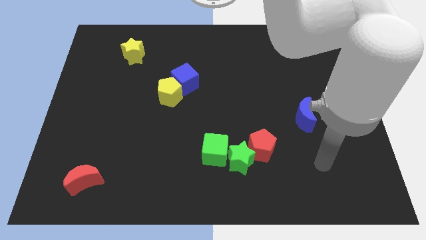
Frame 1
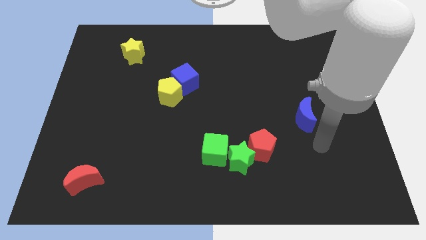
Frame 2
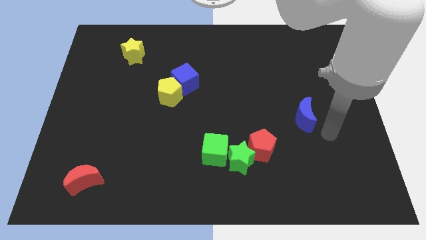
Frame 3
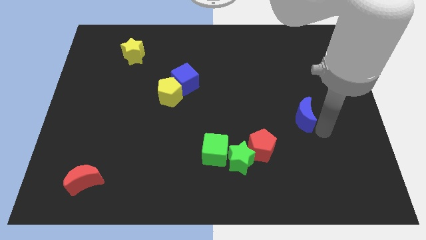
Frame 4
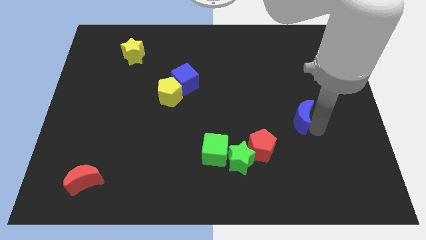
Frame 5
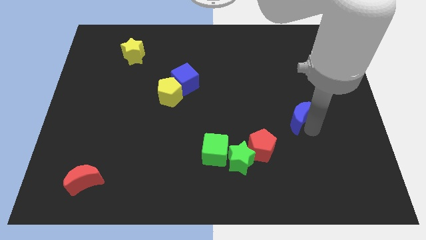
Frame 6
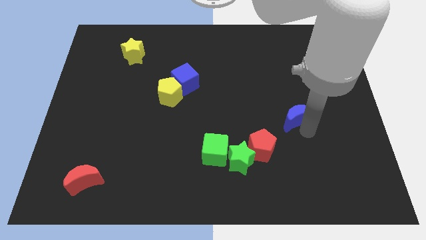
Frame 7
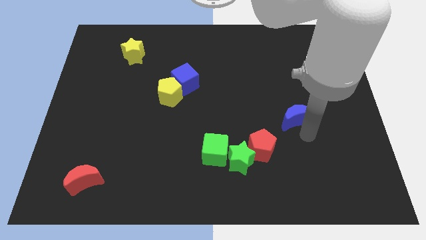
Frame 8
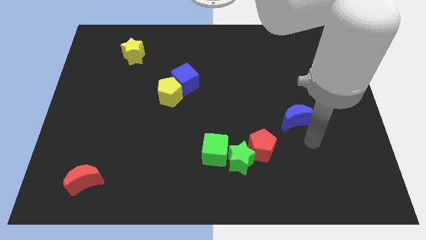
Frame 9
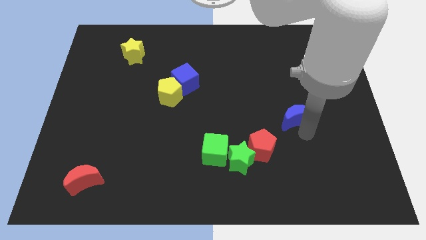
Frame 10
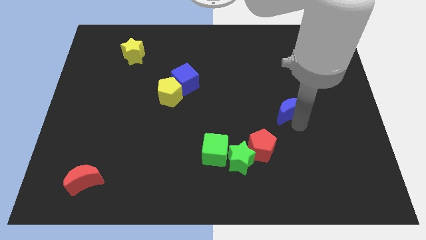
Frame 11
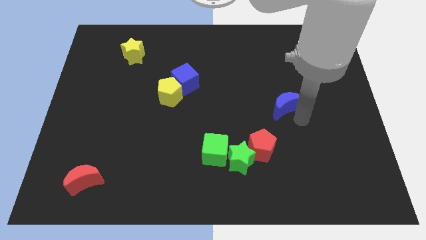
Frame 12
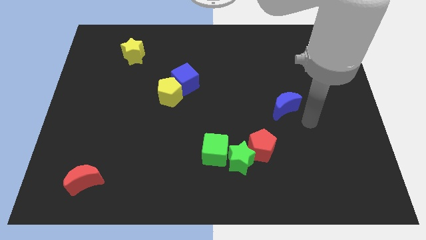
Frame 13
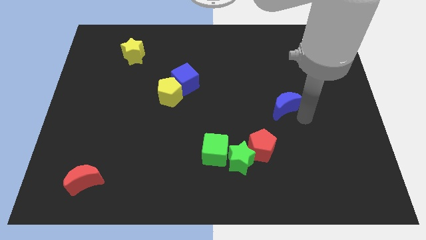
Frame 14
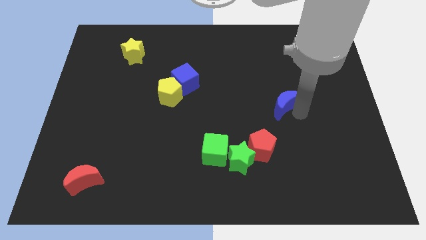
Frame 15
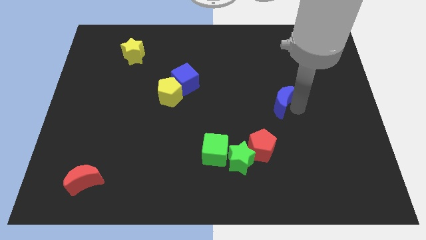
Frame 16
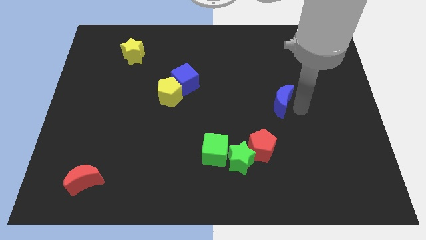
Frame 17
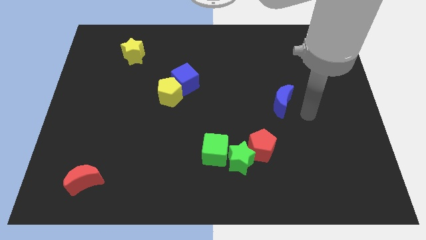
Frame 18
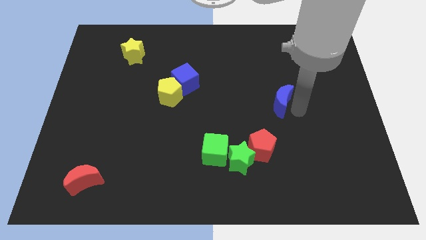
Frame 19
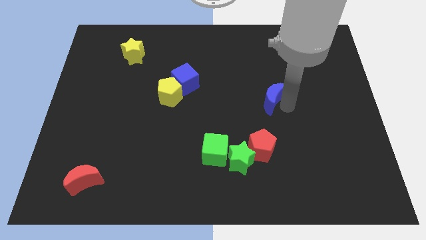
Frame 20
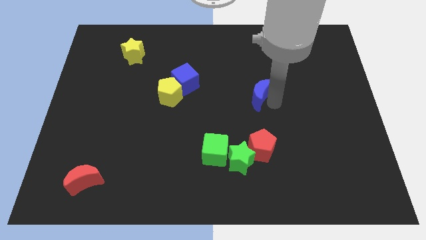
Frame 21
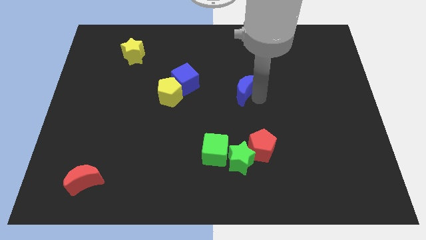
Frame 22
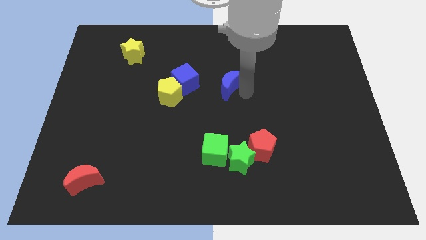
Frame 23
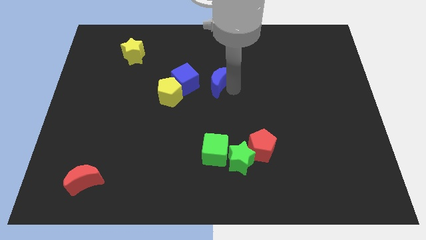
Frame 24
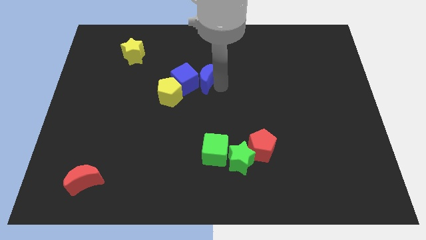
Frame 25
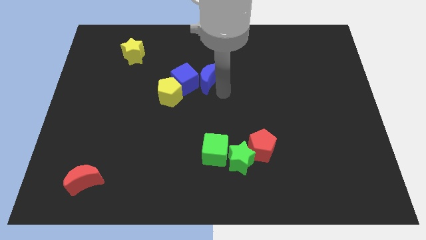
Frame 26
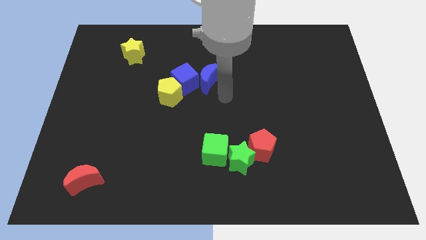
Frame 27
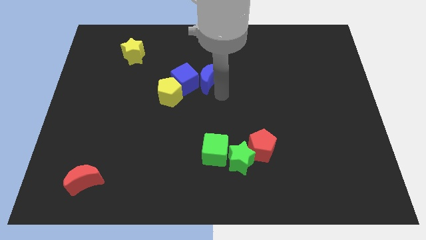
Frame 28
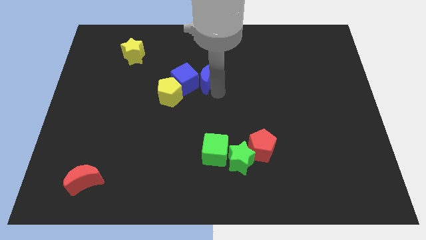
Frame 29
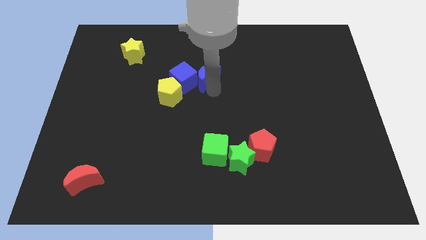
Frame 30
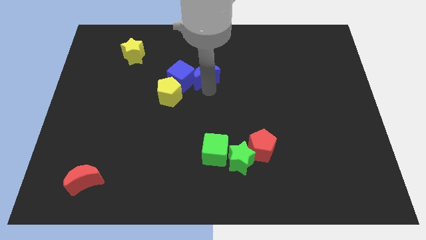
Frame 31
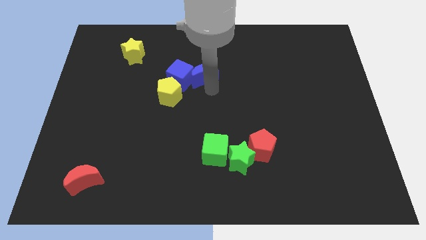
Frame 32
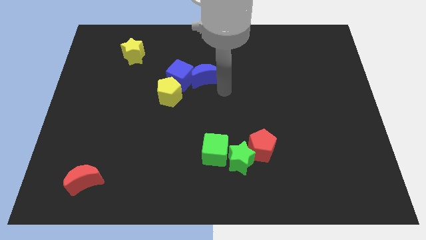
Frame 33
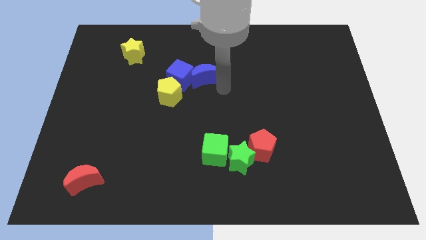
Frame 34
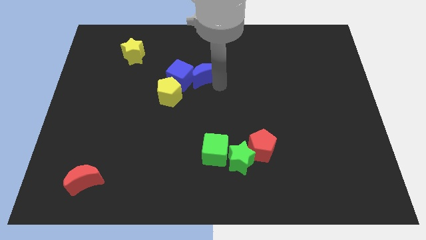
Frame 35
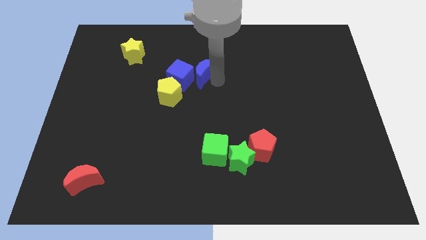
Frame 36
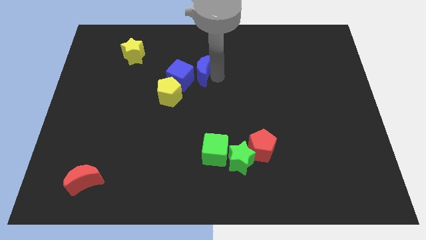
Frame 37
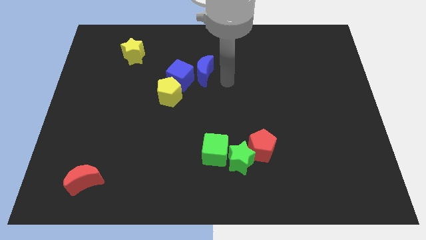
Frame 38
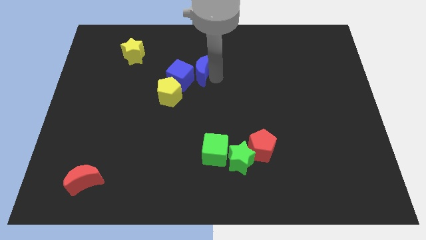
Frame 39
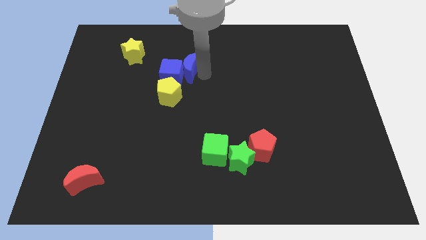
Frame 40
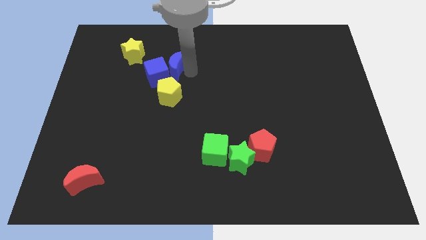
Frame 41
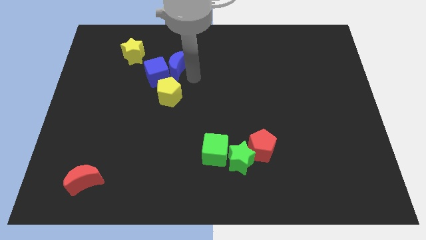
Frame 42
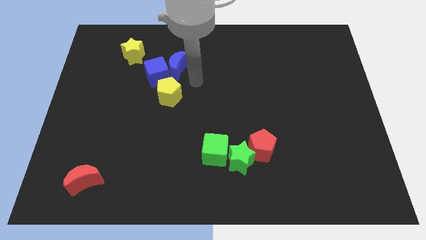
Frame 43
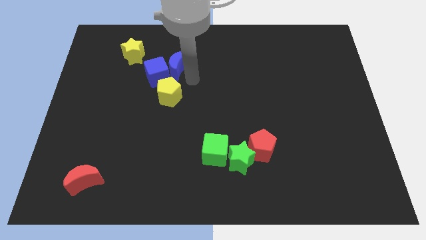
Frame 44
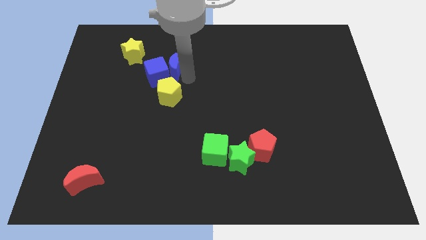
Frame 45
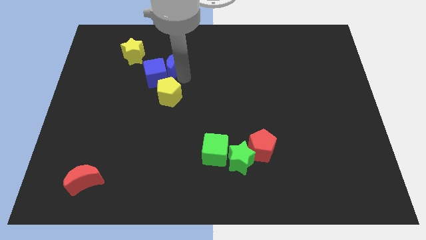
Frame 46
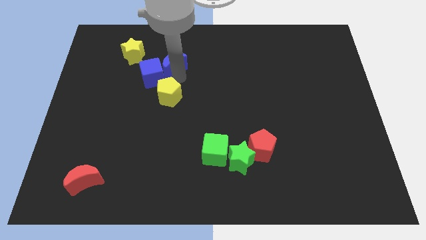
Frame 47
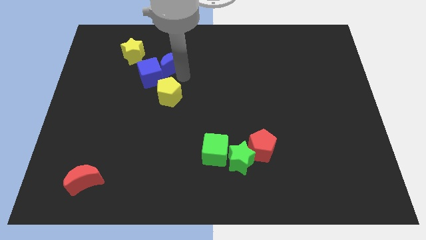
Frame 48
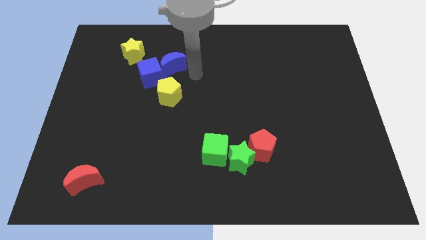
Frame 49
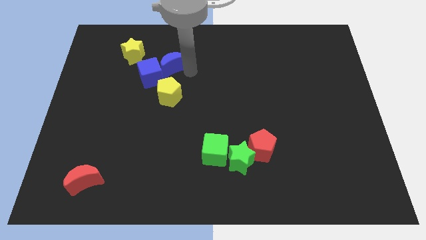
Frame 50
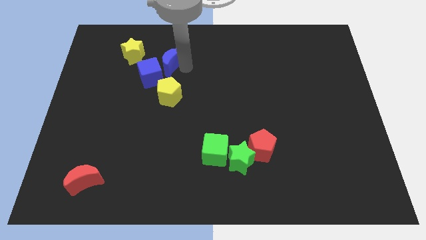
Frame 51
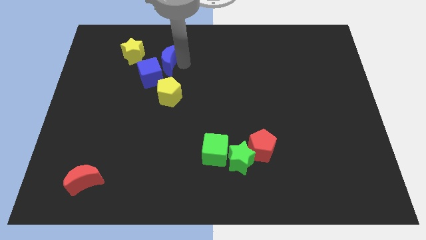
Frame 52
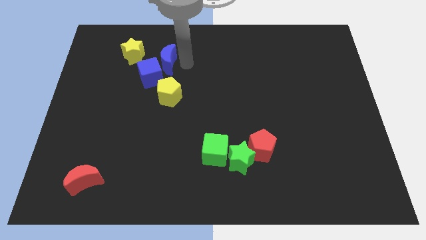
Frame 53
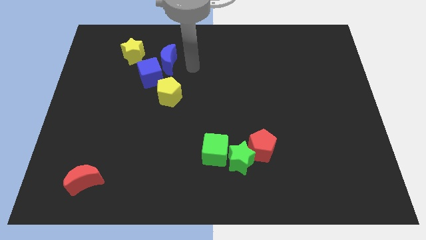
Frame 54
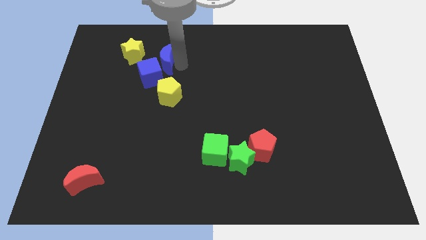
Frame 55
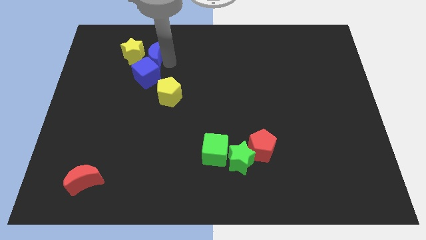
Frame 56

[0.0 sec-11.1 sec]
put the blue moon to the yellow star

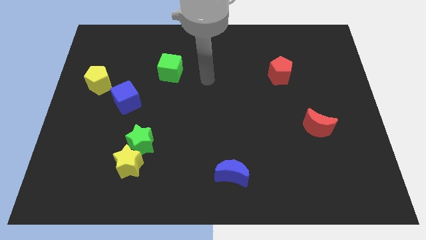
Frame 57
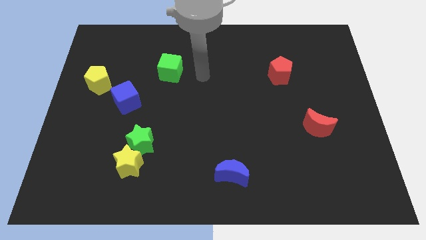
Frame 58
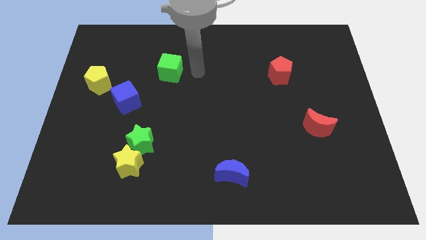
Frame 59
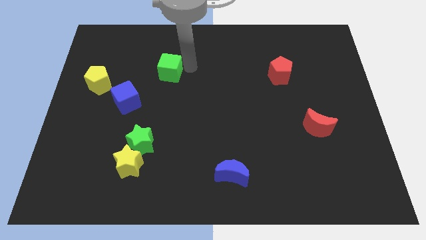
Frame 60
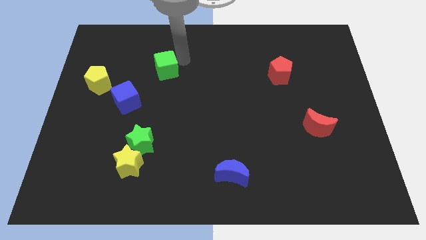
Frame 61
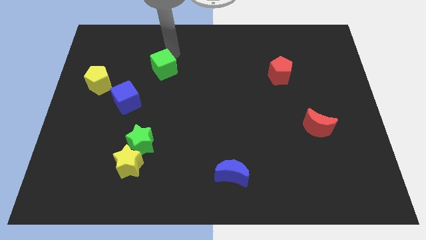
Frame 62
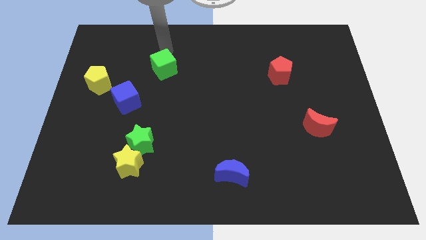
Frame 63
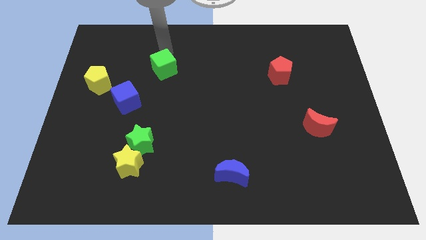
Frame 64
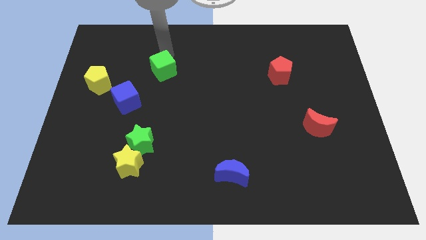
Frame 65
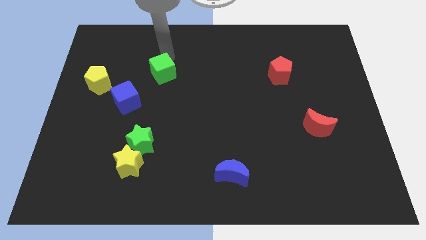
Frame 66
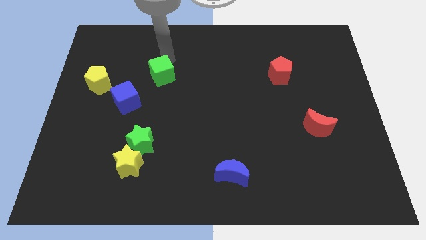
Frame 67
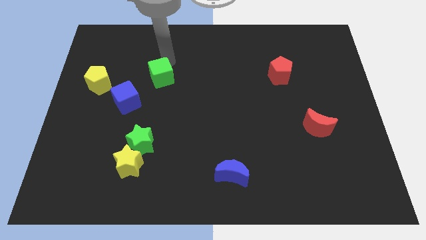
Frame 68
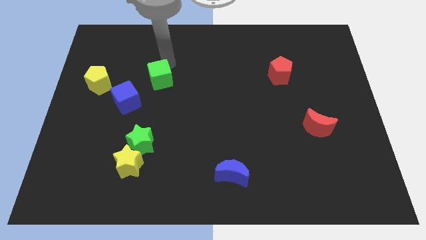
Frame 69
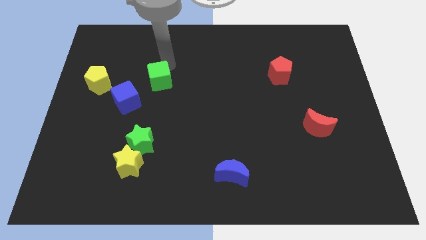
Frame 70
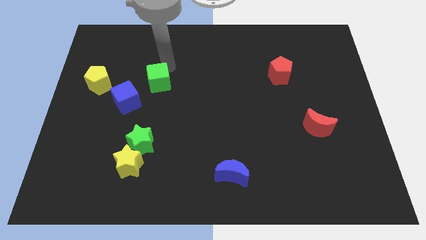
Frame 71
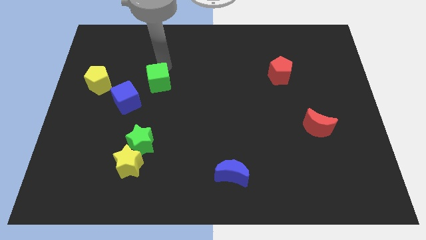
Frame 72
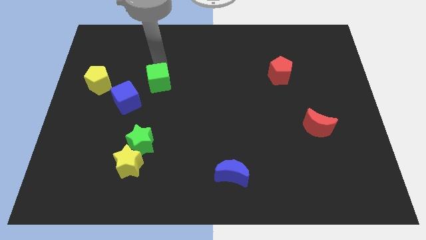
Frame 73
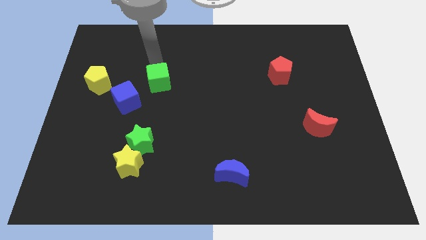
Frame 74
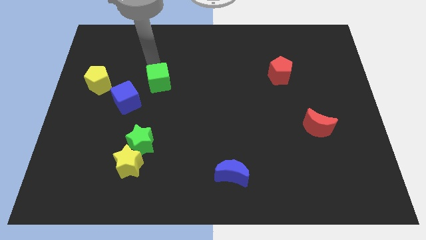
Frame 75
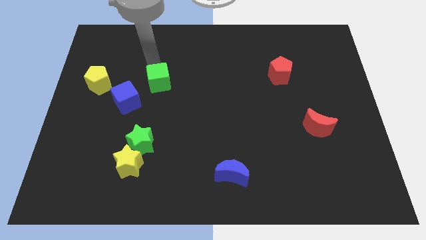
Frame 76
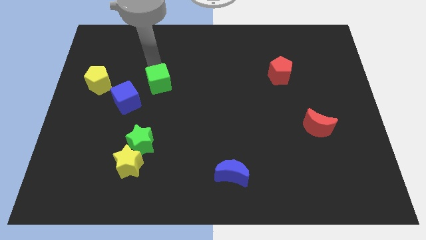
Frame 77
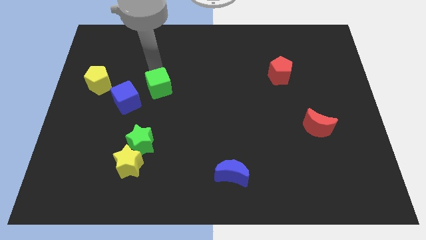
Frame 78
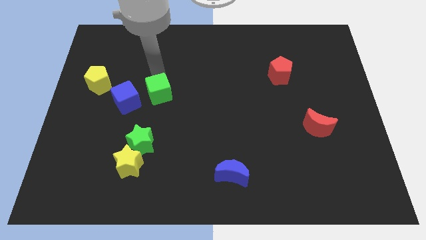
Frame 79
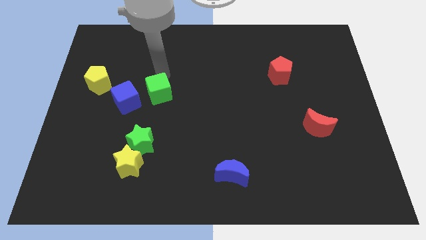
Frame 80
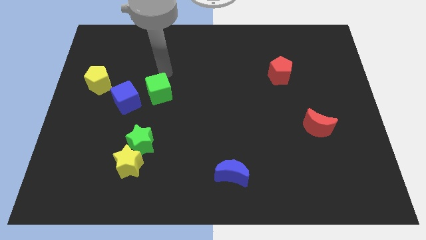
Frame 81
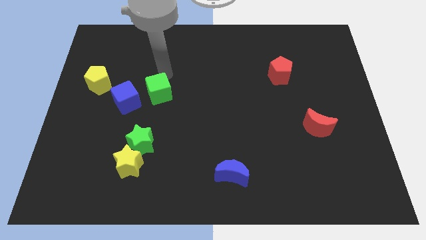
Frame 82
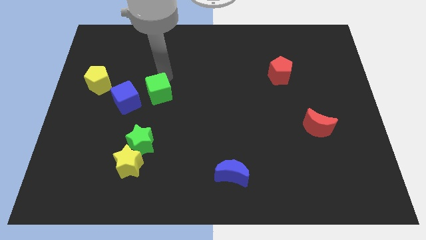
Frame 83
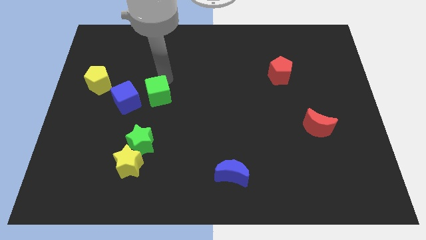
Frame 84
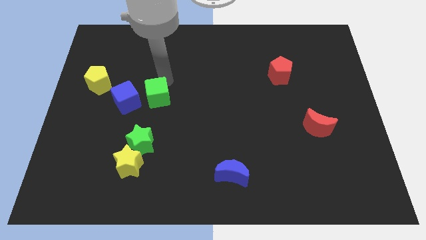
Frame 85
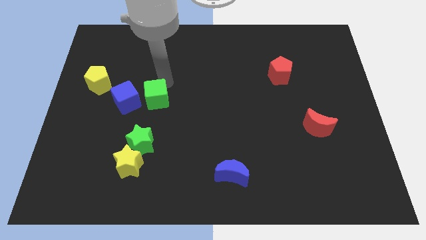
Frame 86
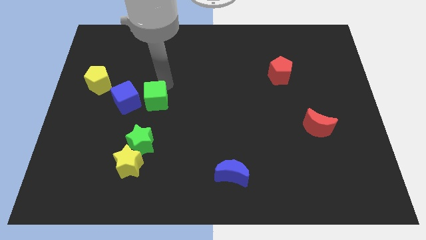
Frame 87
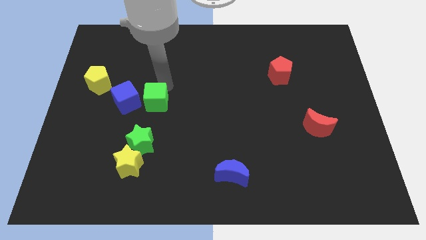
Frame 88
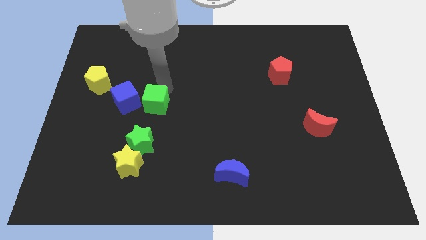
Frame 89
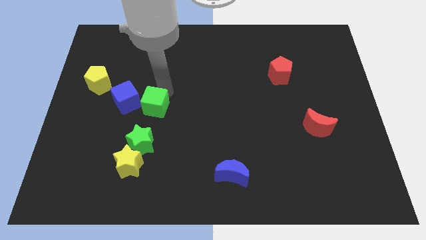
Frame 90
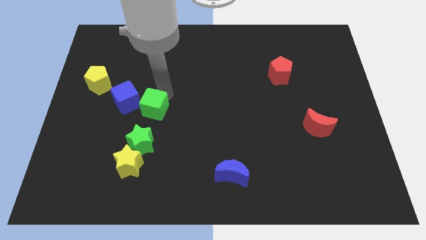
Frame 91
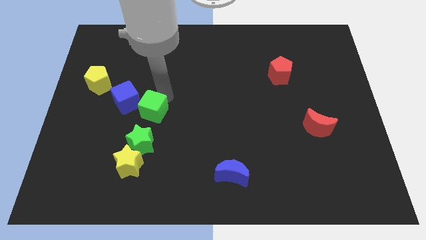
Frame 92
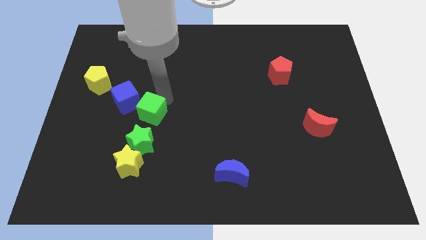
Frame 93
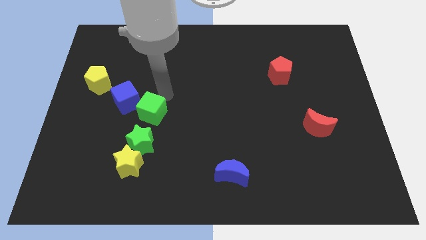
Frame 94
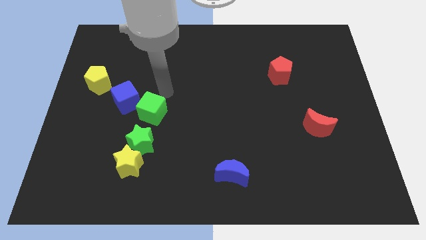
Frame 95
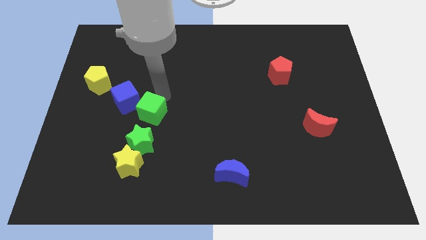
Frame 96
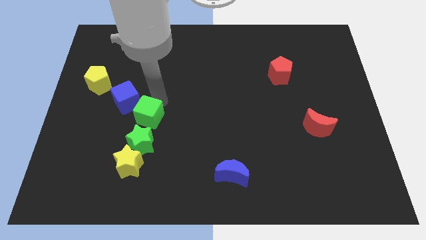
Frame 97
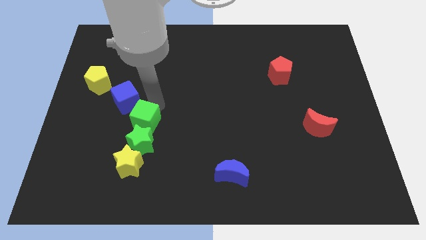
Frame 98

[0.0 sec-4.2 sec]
move the green cube close to the green star
